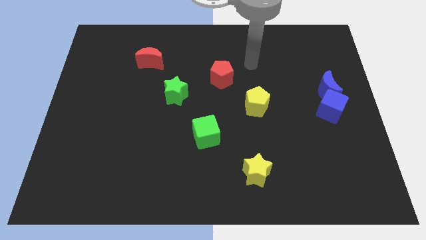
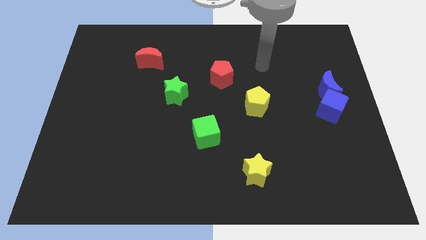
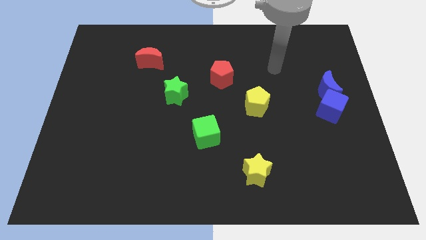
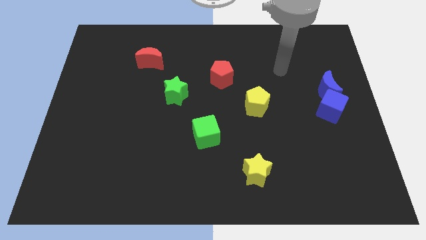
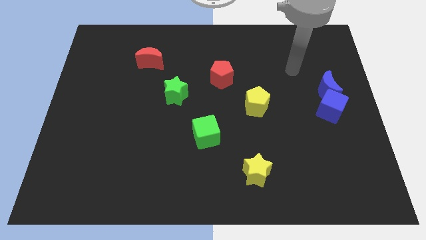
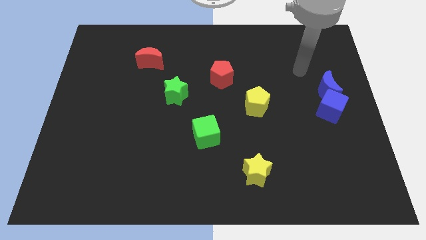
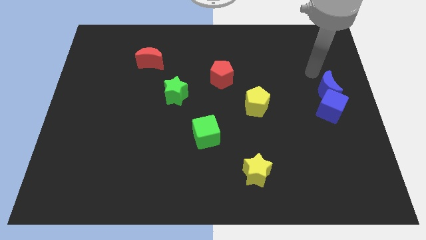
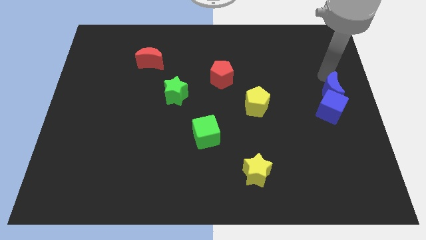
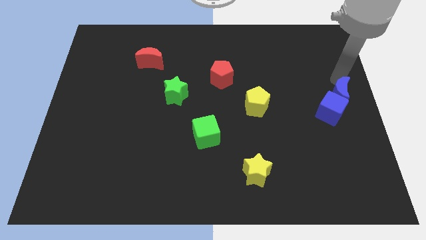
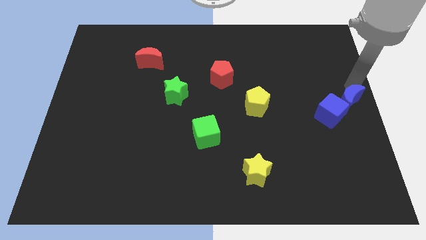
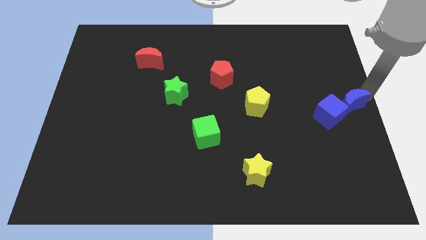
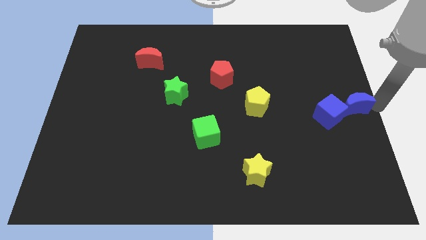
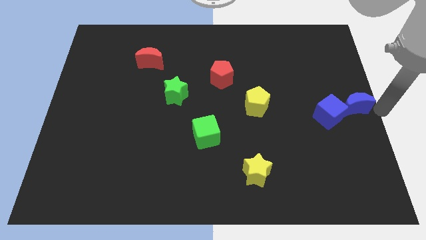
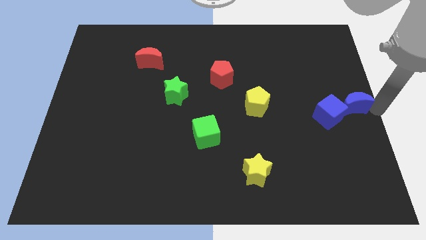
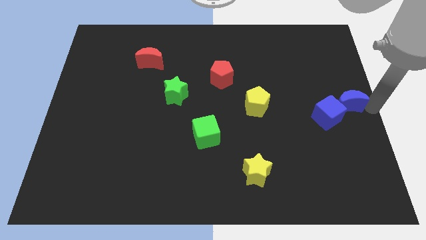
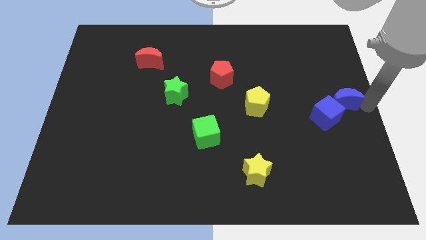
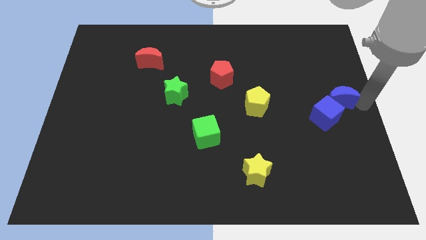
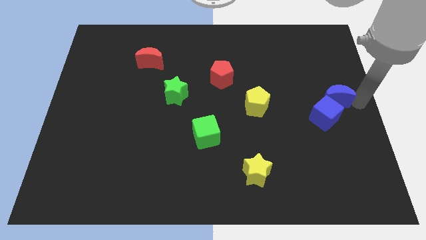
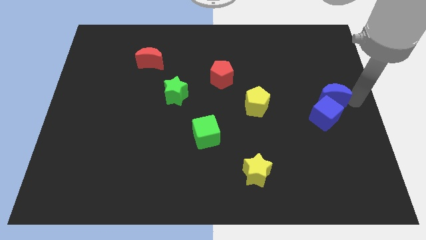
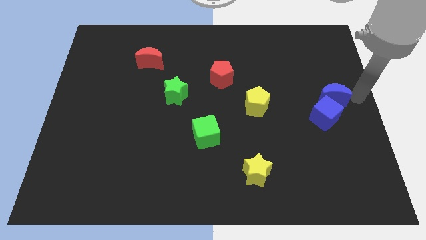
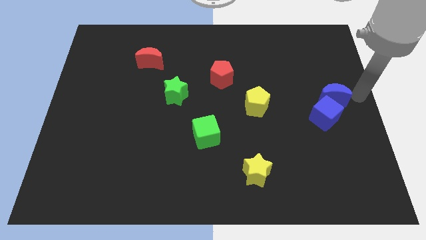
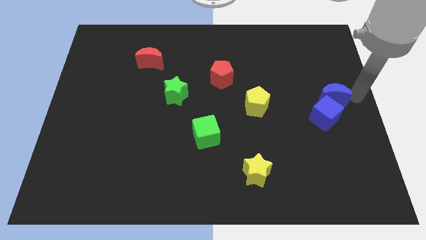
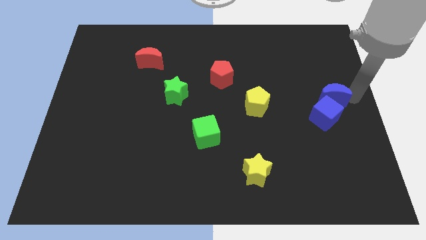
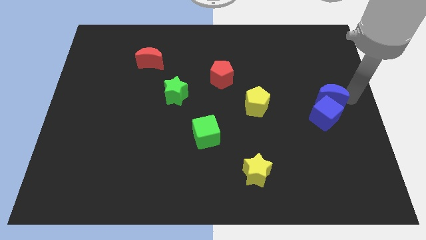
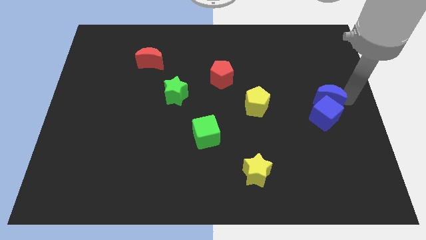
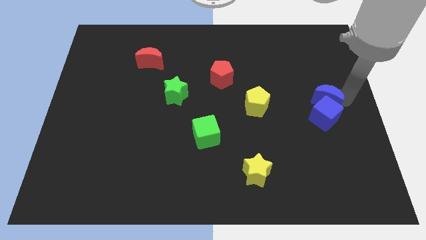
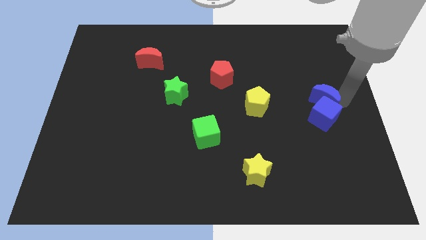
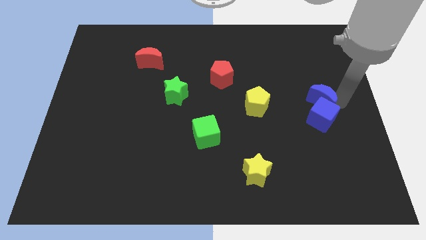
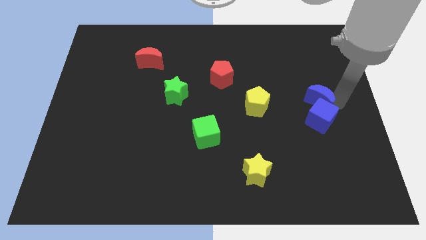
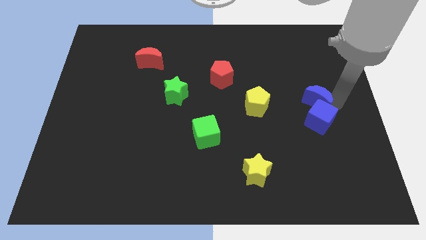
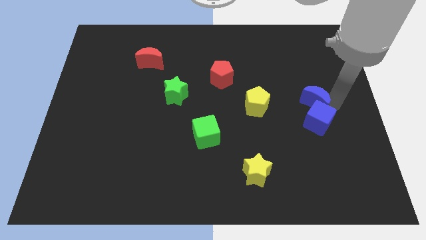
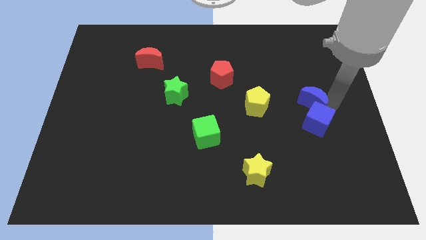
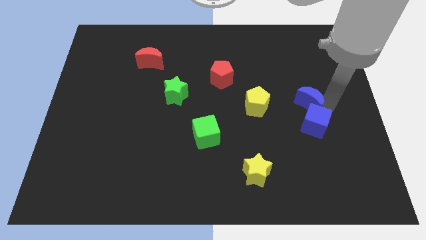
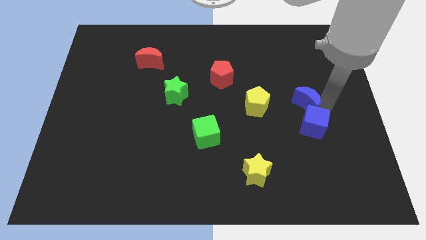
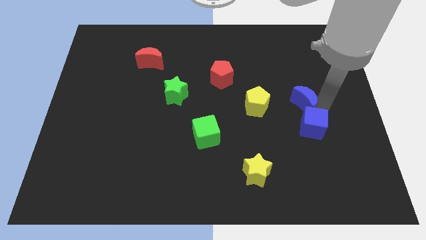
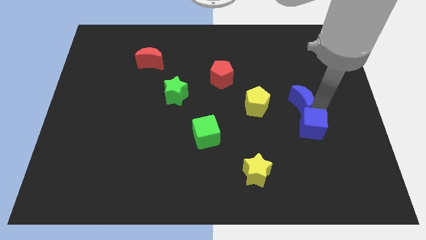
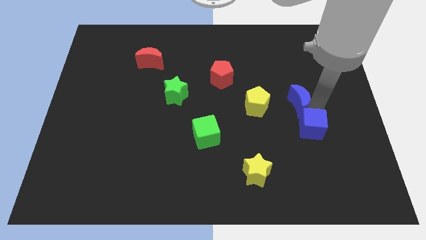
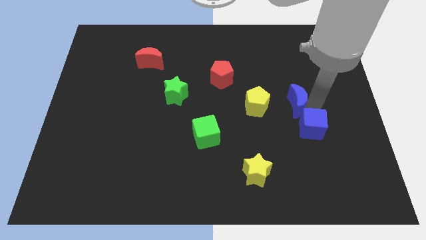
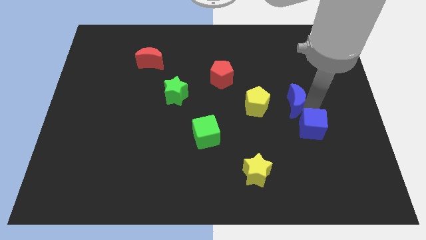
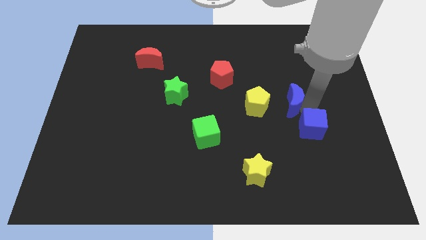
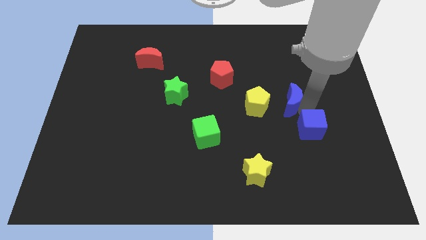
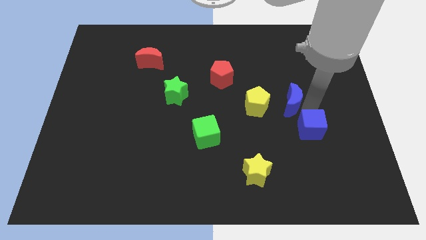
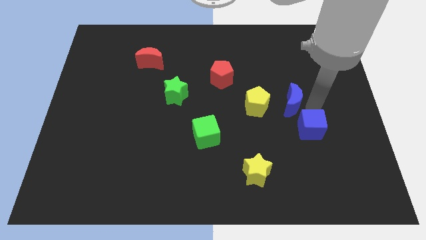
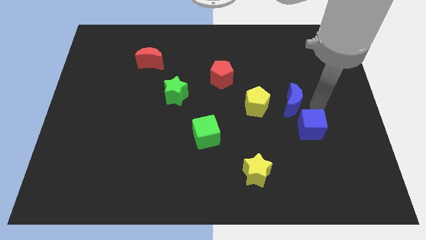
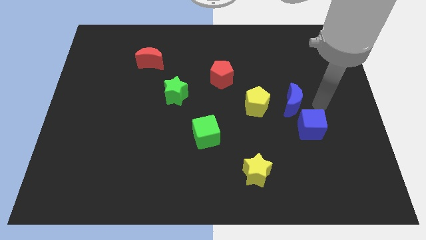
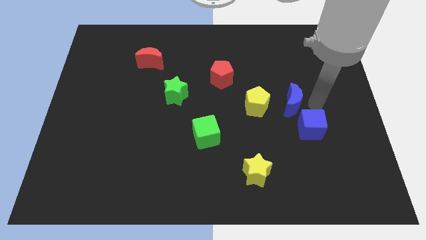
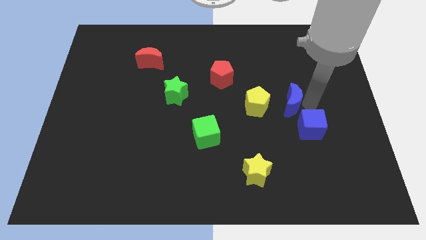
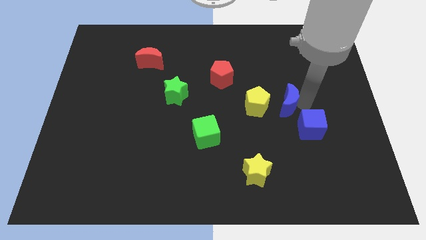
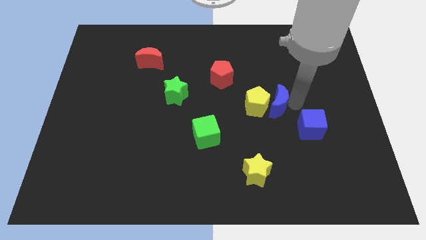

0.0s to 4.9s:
move the blue moon towards the yellow pentagon

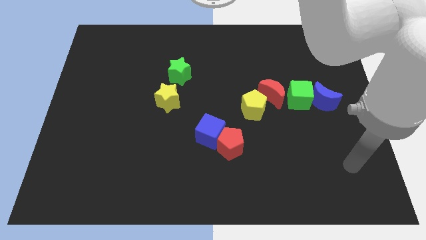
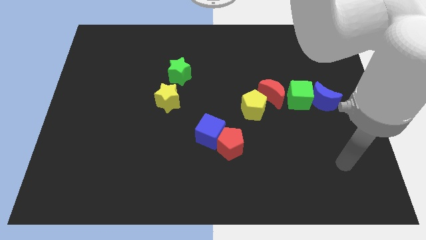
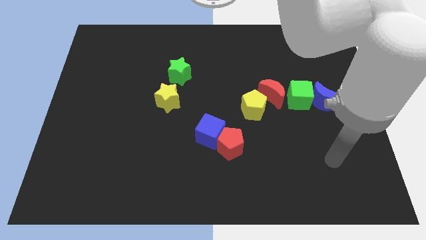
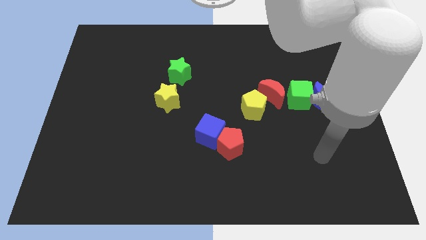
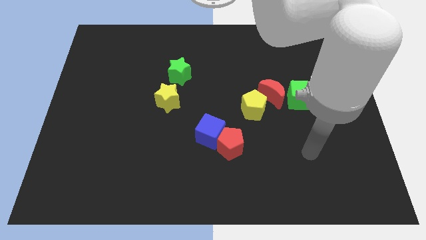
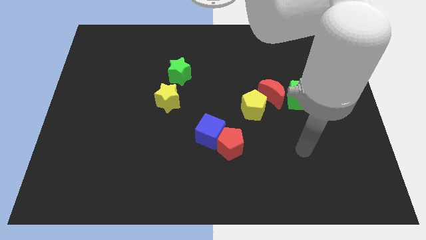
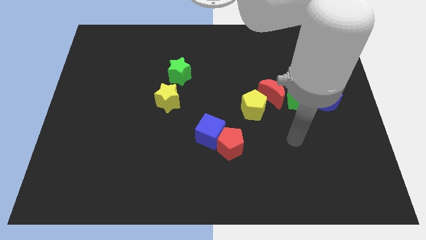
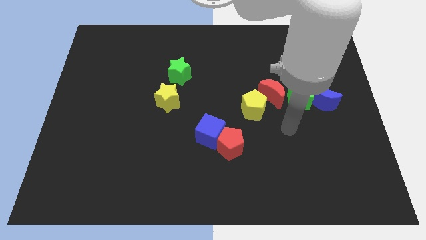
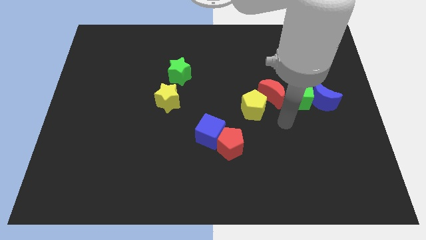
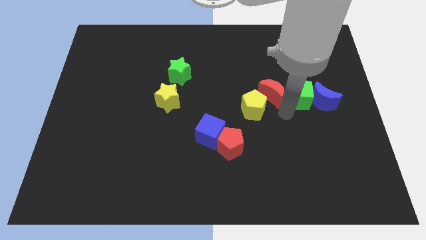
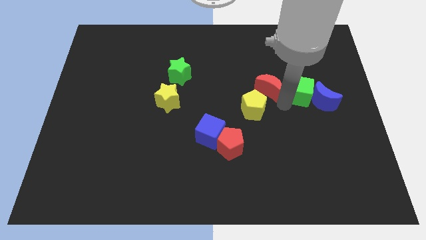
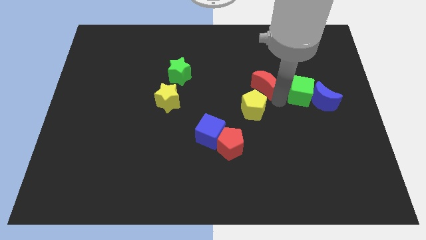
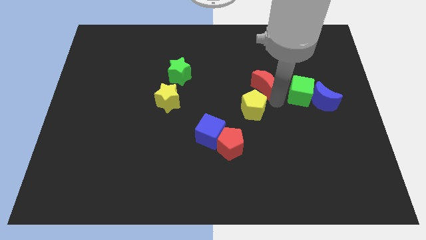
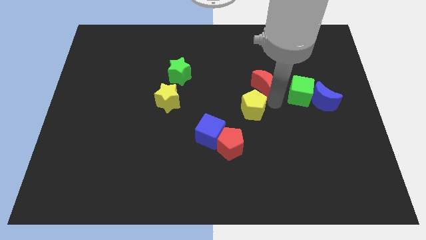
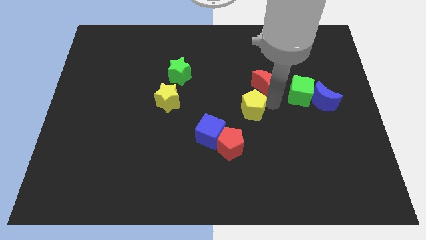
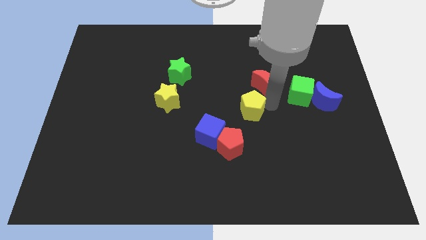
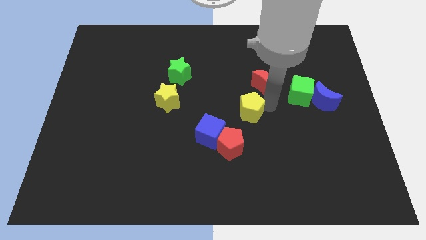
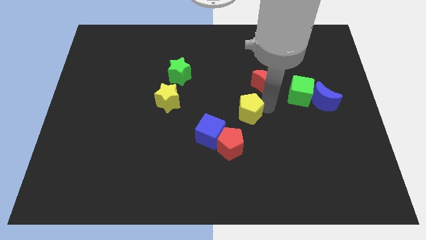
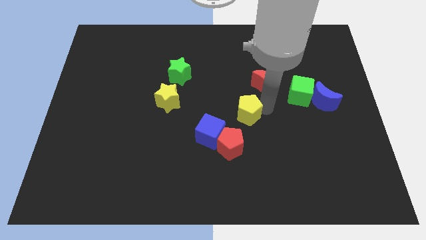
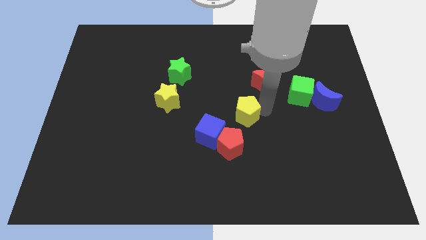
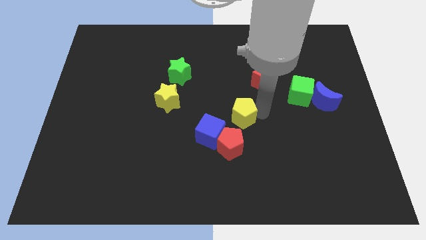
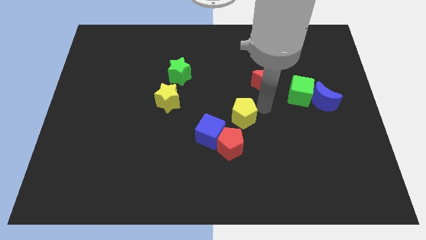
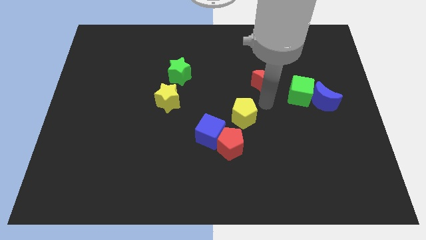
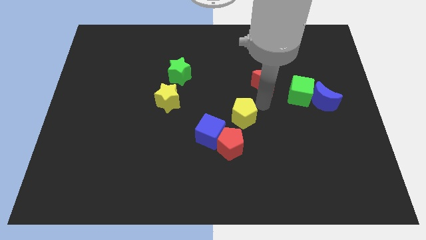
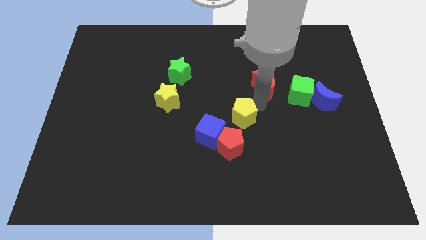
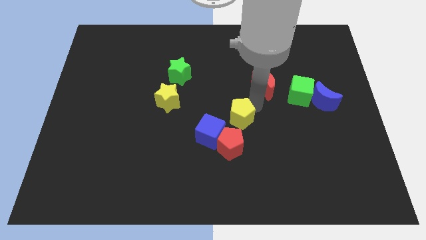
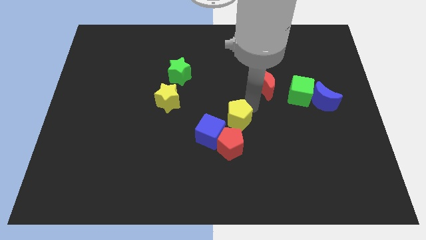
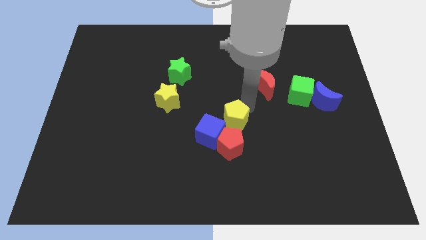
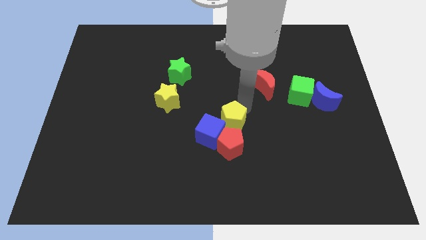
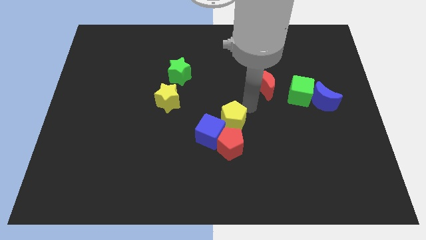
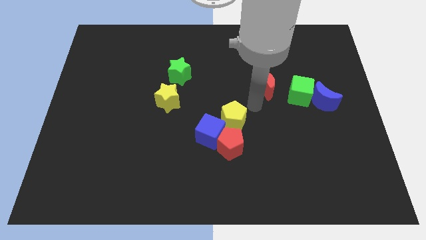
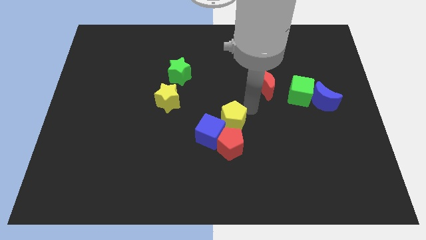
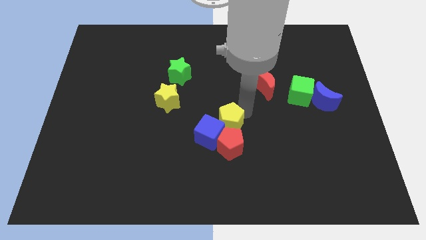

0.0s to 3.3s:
slide the yellow pentagon close to the blue cube
